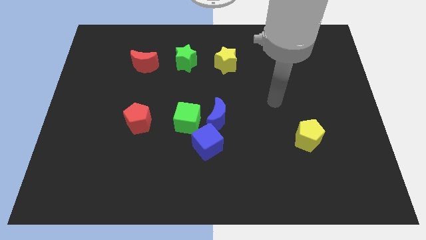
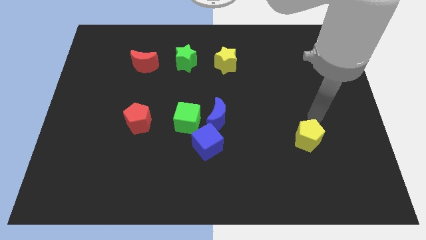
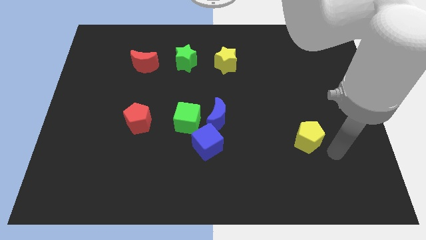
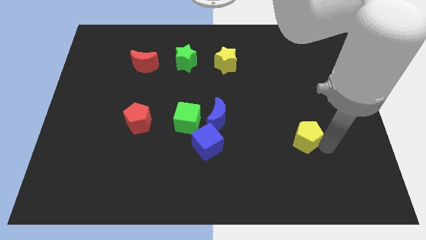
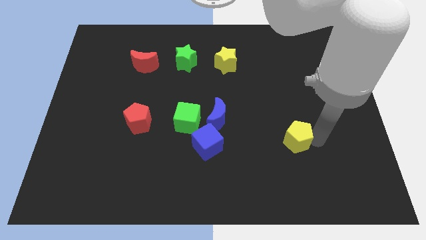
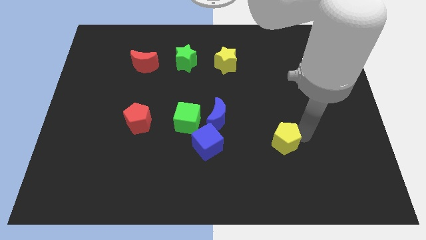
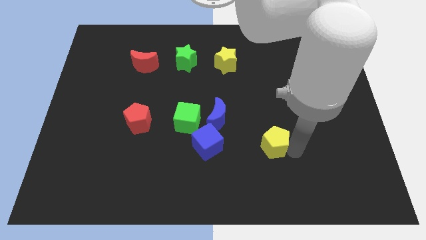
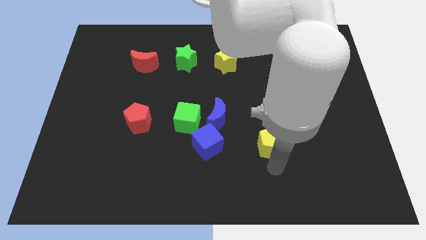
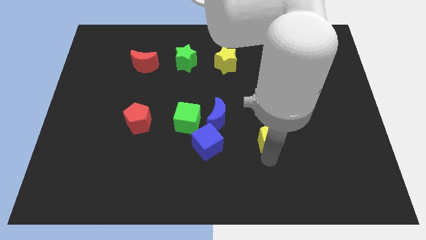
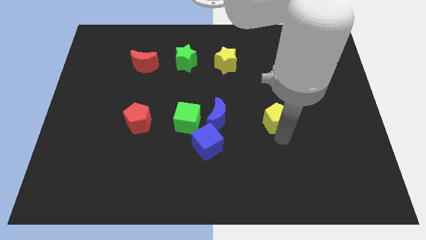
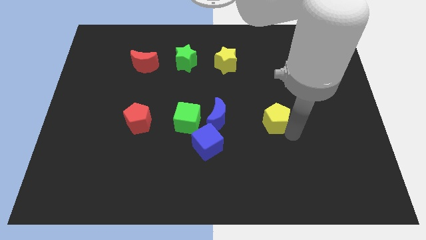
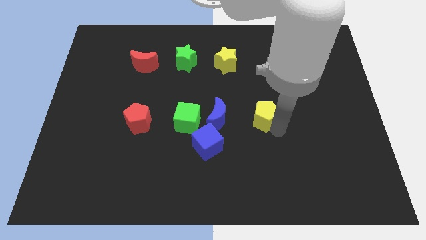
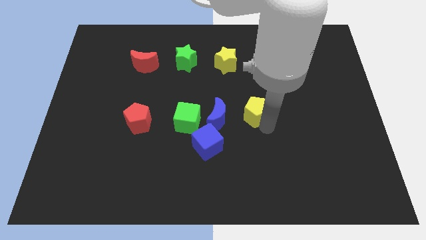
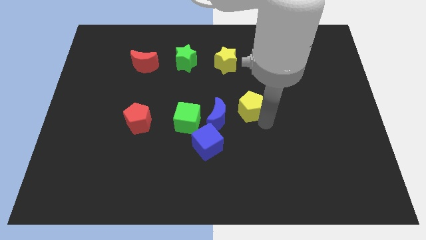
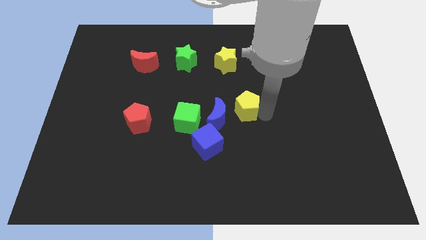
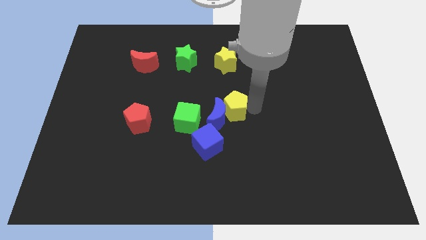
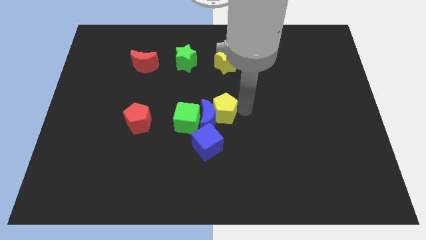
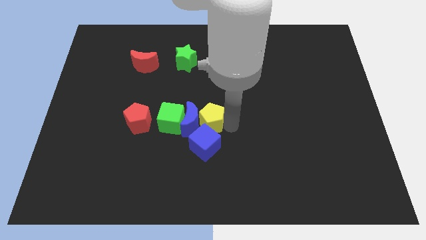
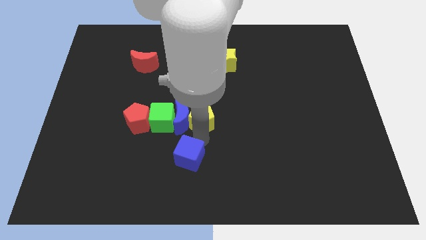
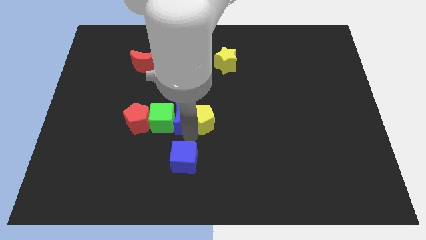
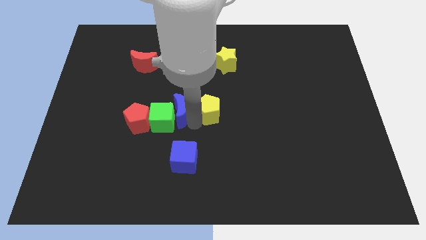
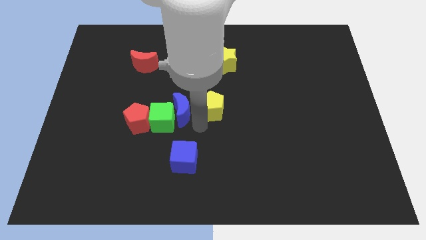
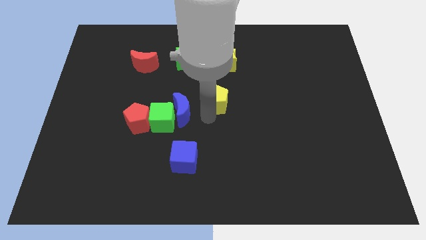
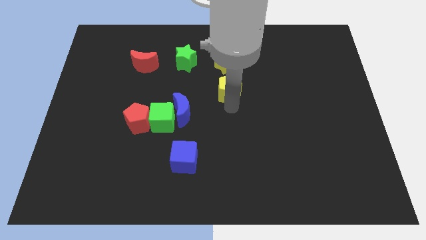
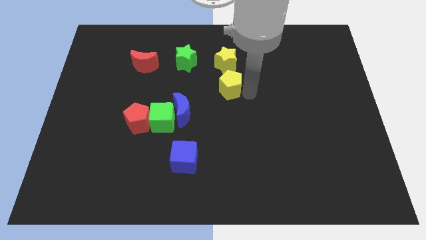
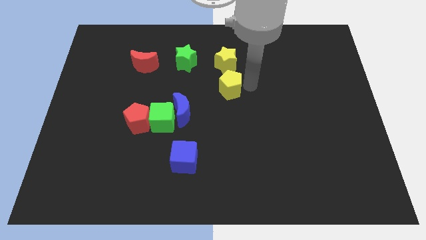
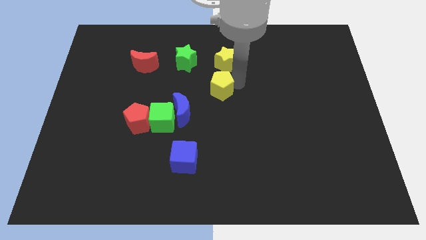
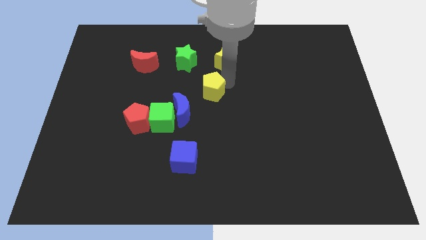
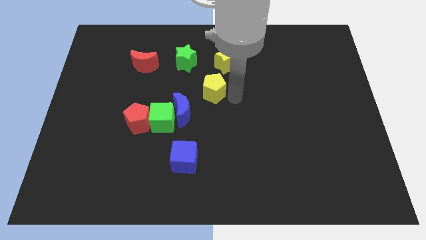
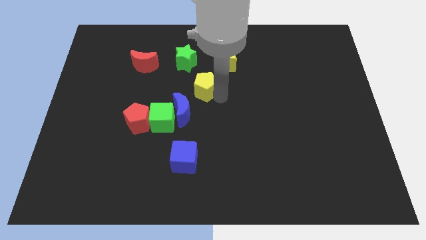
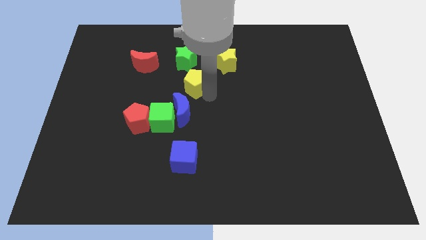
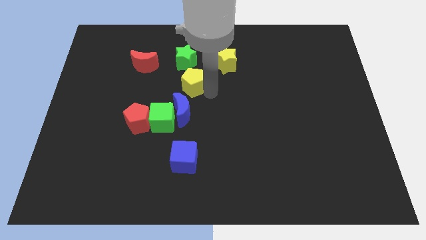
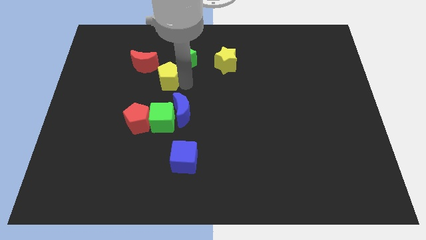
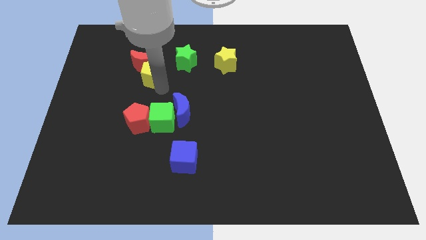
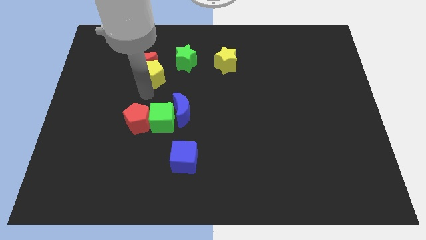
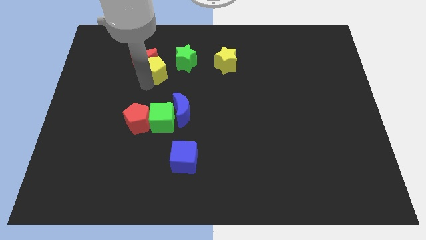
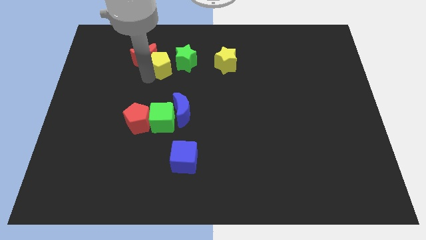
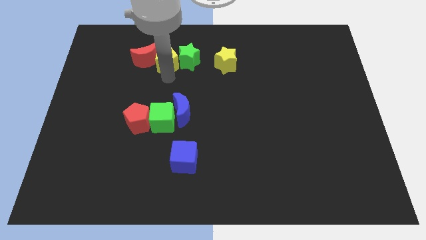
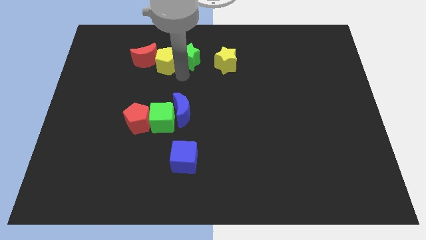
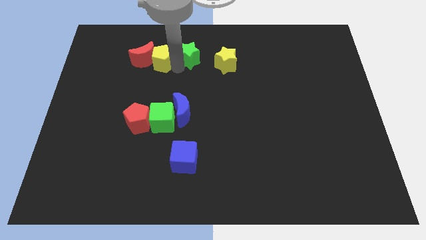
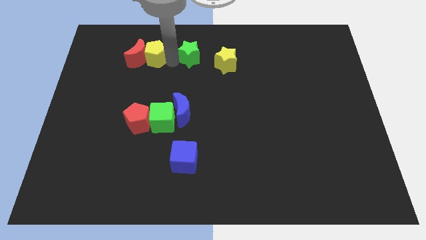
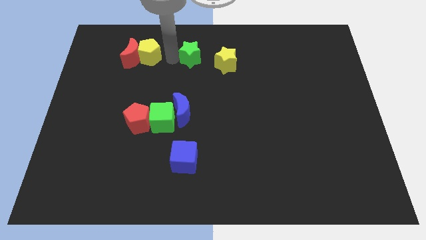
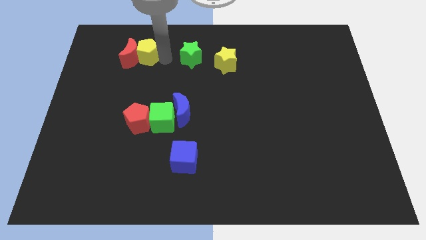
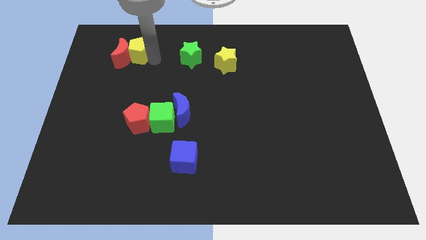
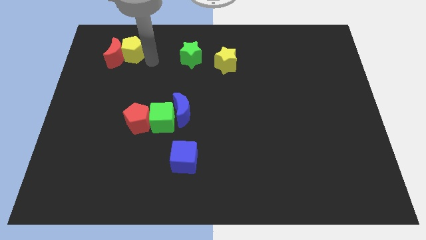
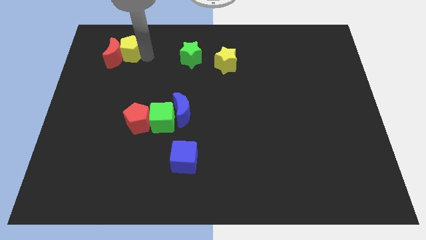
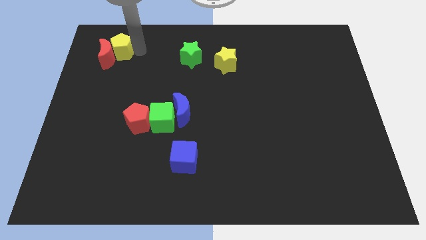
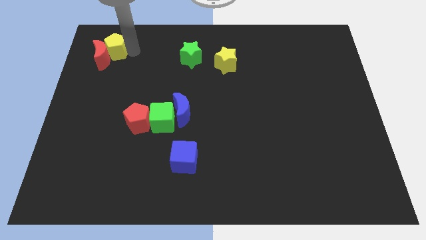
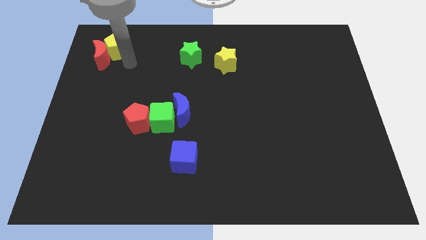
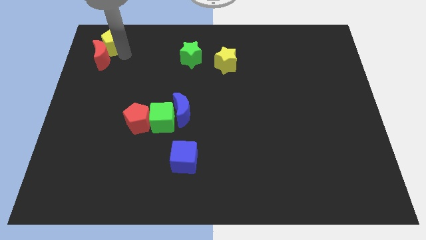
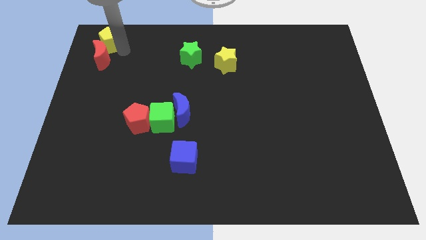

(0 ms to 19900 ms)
push the yellow pentagon to the top left

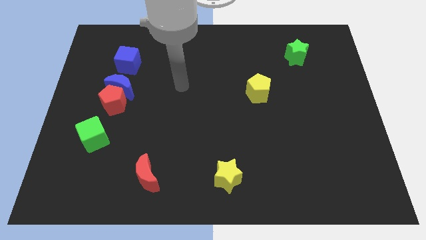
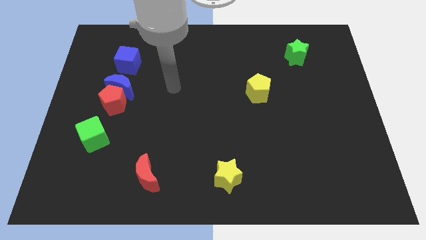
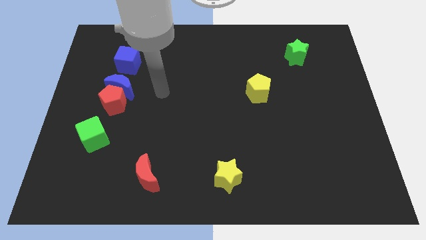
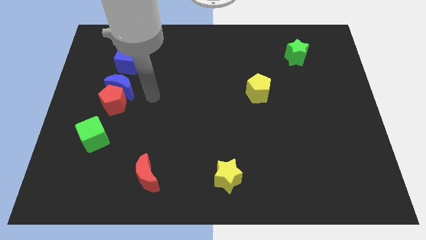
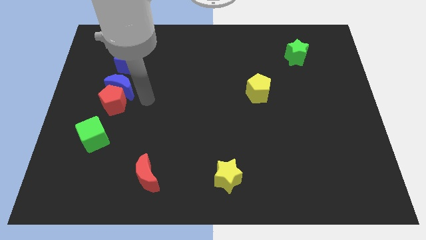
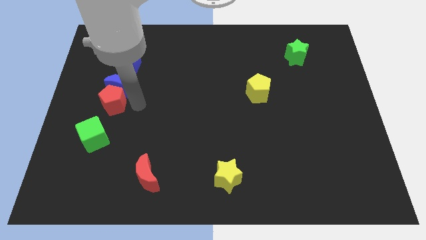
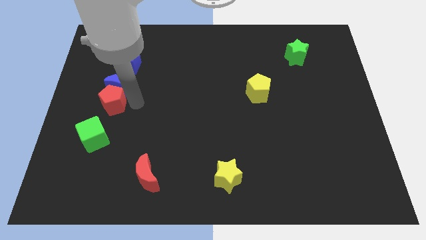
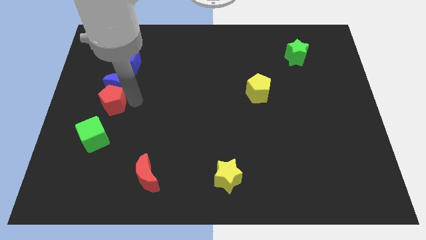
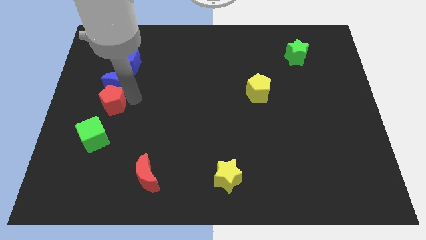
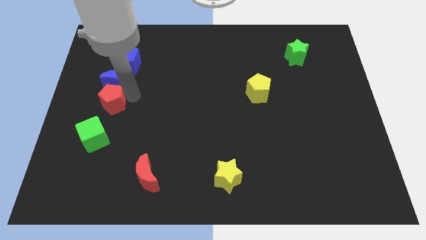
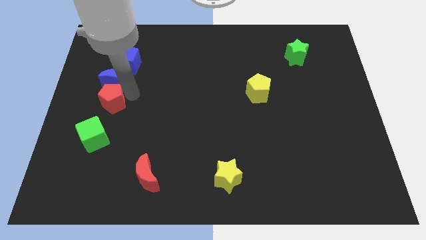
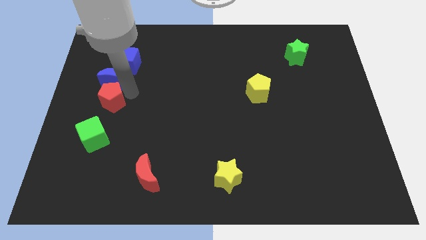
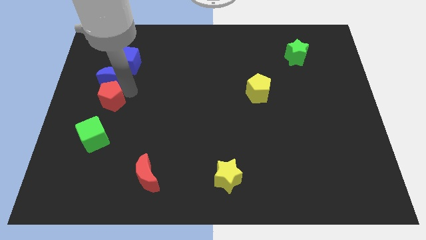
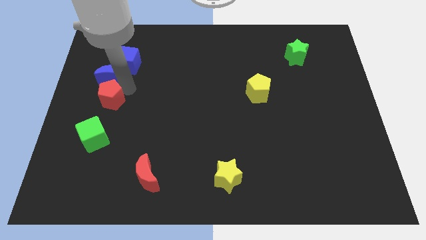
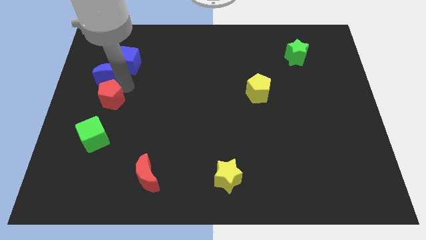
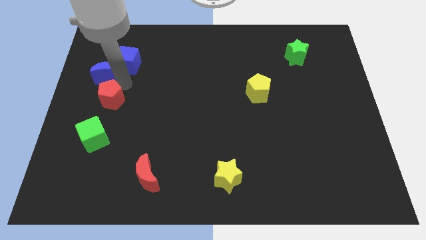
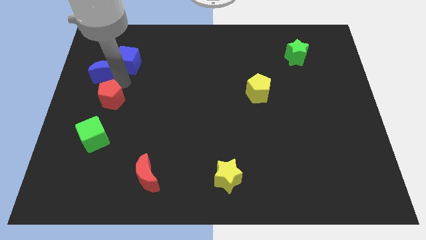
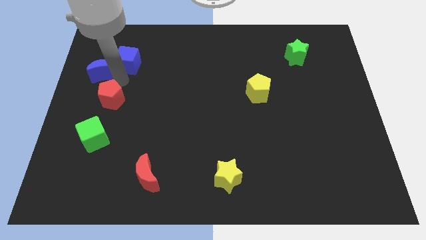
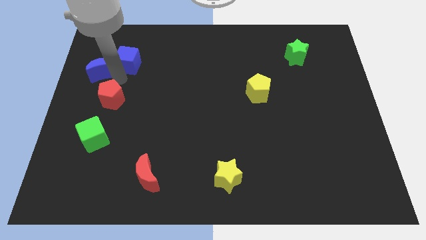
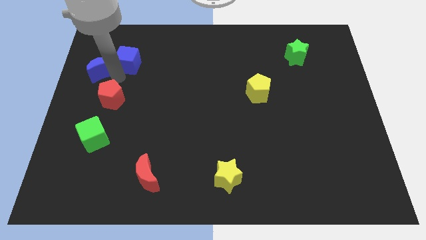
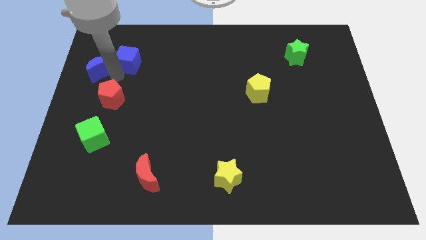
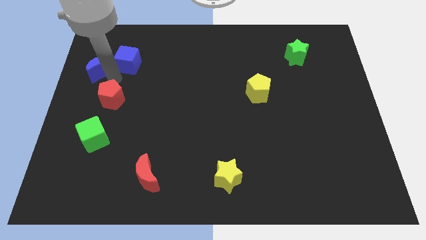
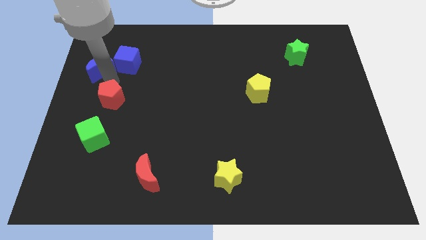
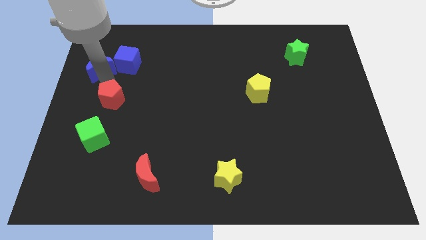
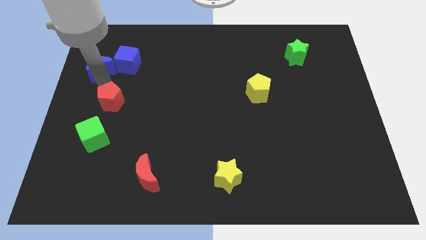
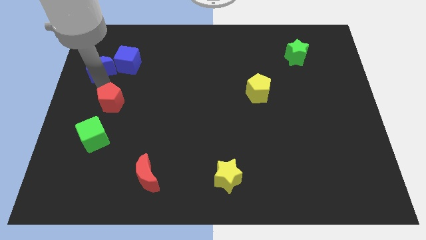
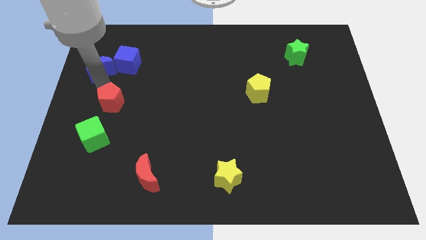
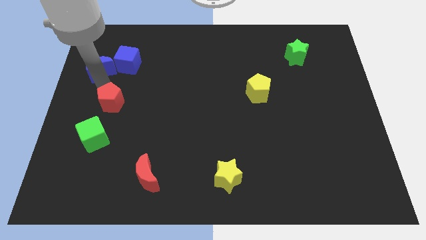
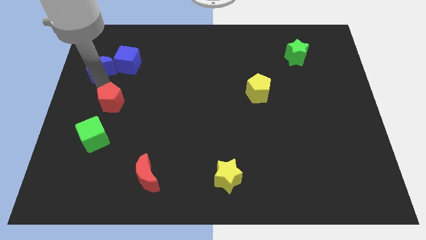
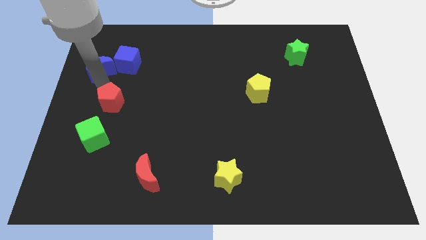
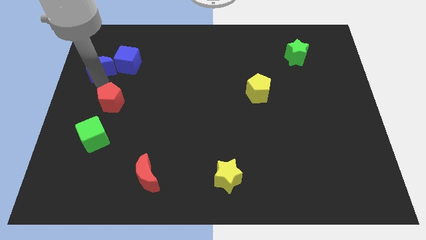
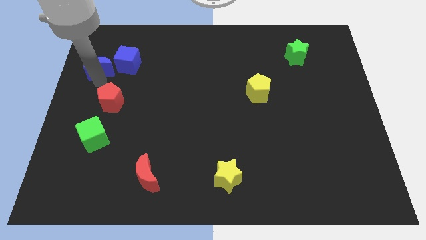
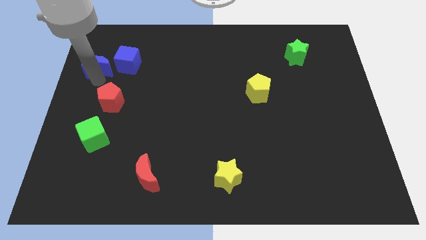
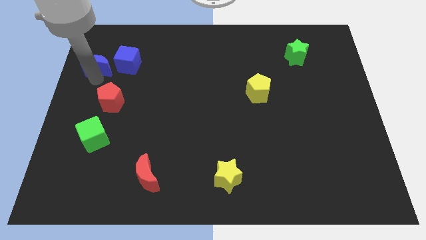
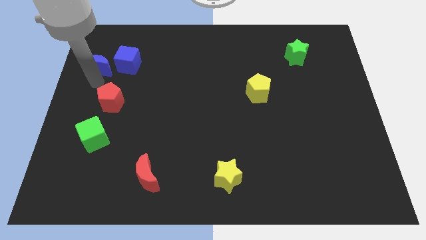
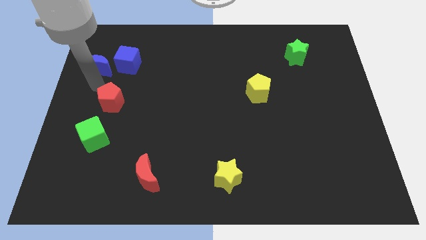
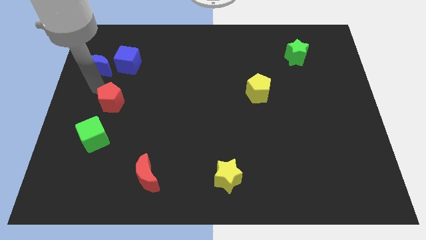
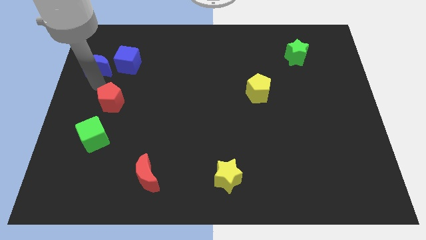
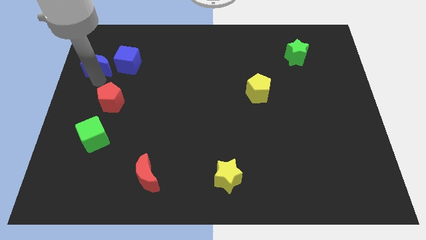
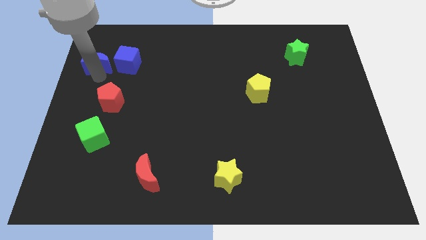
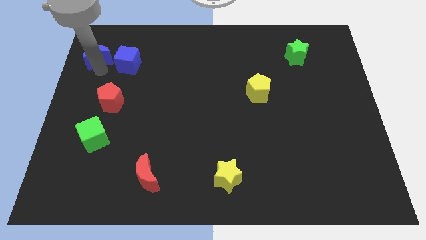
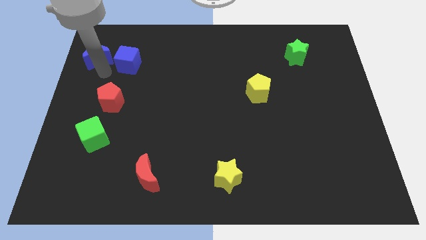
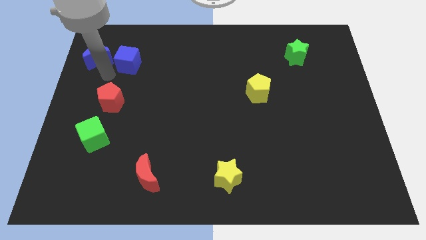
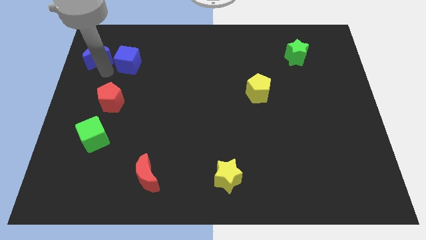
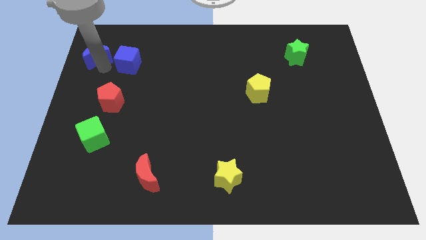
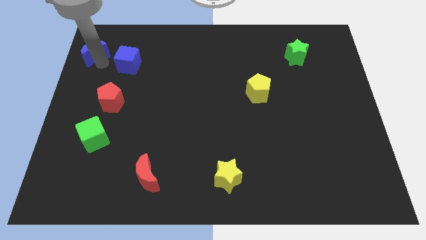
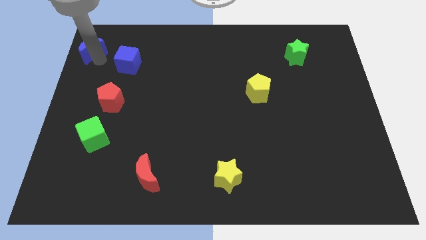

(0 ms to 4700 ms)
put the blue moon to the top left
